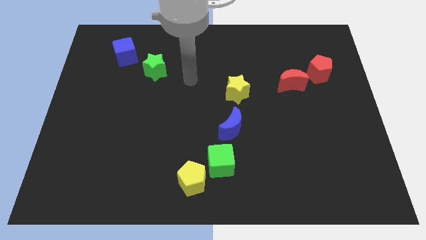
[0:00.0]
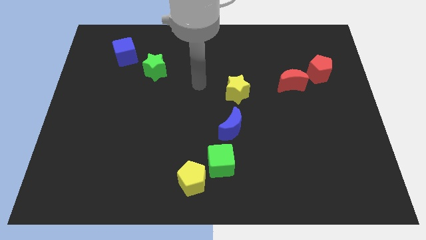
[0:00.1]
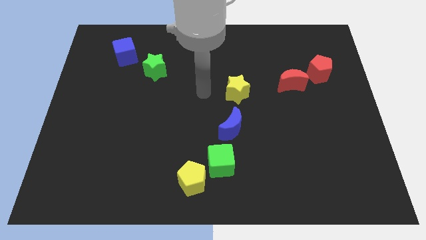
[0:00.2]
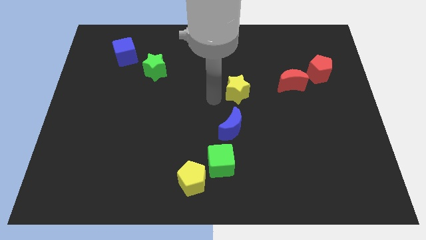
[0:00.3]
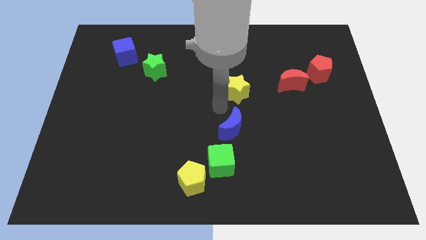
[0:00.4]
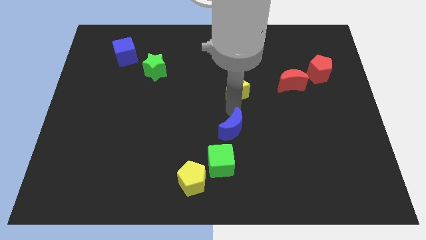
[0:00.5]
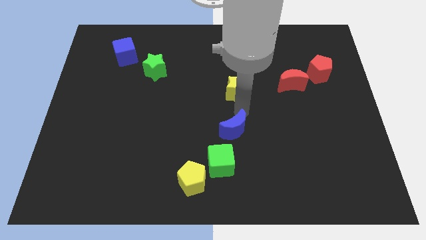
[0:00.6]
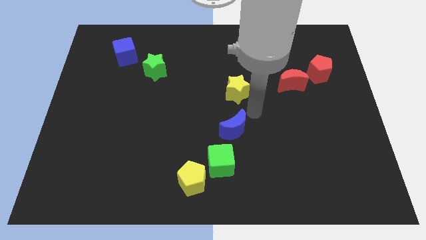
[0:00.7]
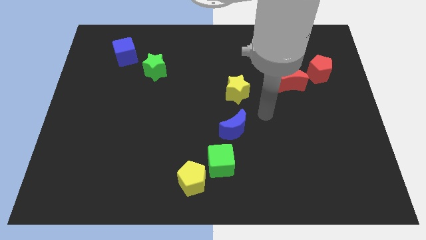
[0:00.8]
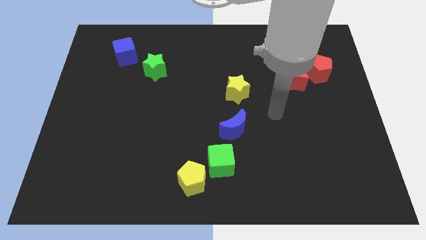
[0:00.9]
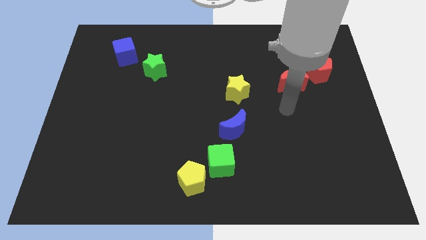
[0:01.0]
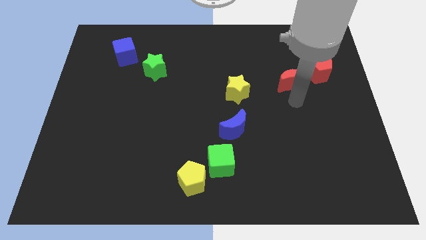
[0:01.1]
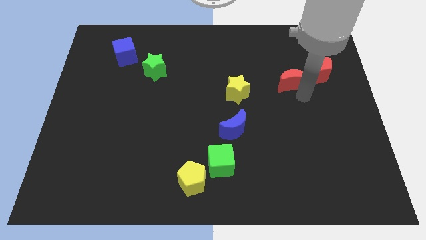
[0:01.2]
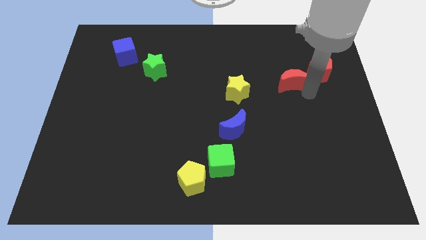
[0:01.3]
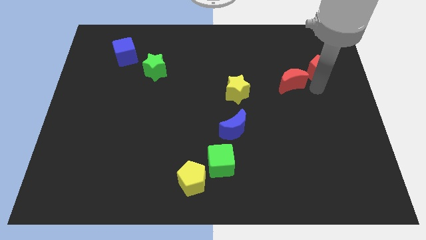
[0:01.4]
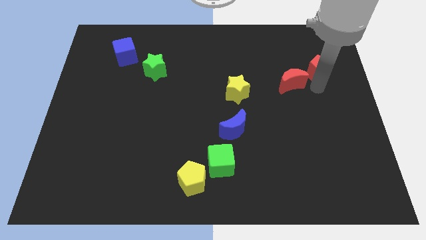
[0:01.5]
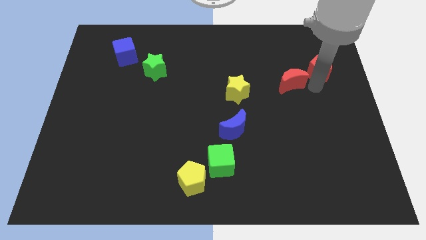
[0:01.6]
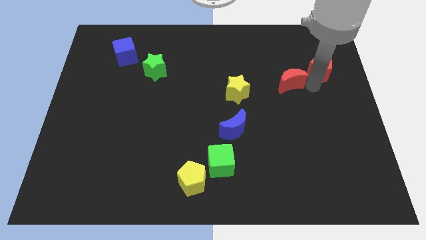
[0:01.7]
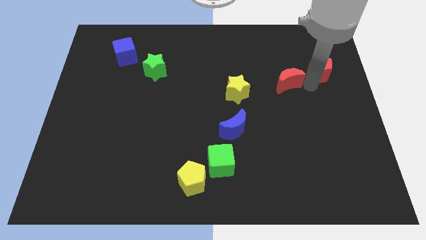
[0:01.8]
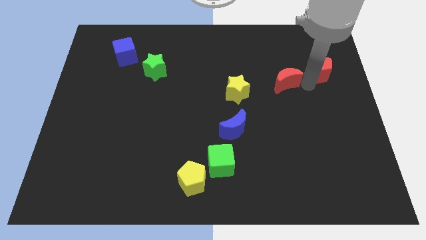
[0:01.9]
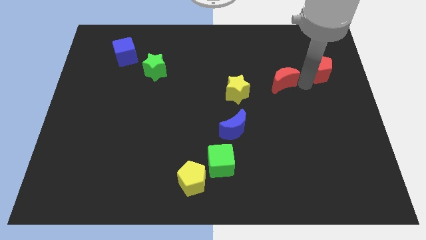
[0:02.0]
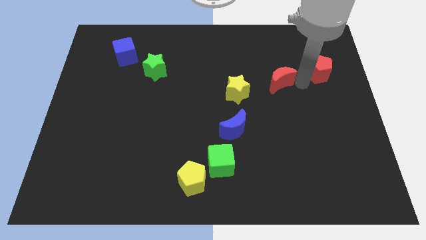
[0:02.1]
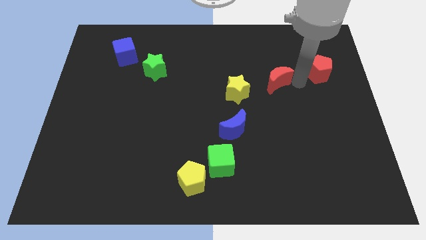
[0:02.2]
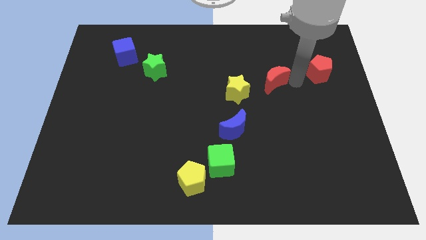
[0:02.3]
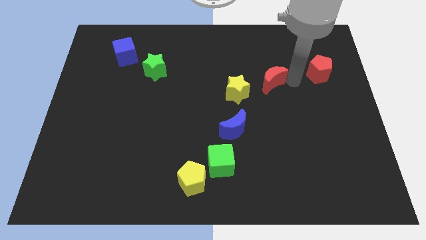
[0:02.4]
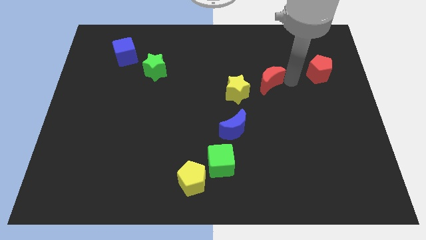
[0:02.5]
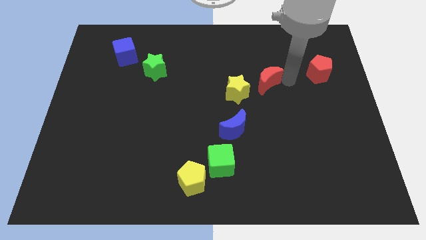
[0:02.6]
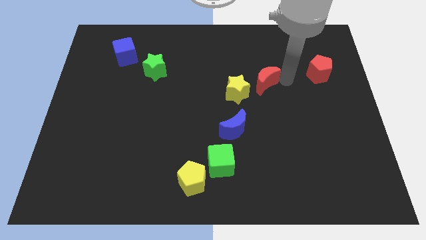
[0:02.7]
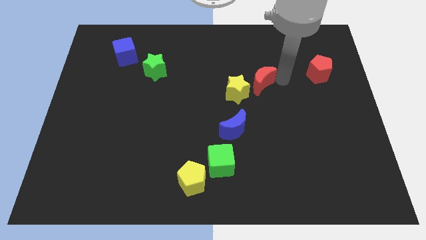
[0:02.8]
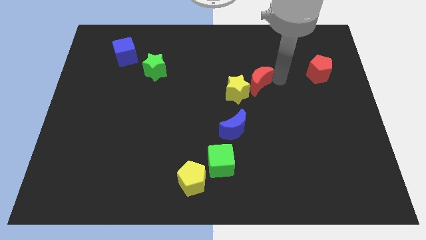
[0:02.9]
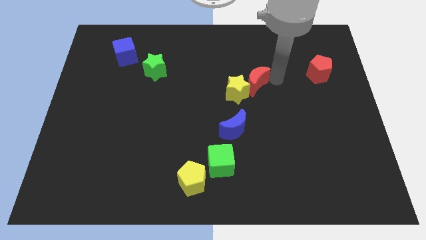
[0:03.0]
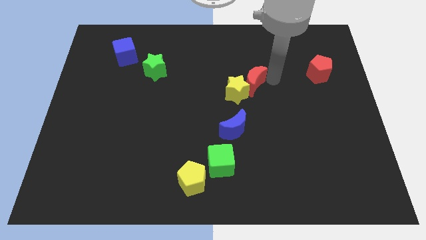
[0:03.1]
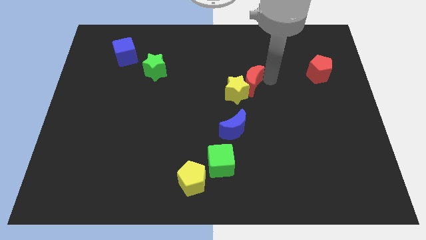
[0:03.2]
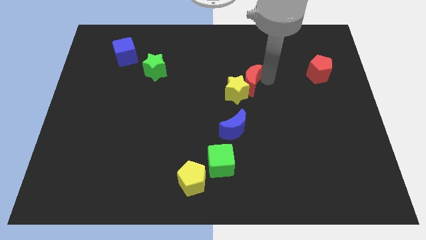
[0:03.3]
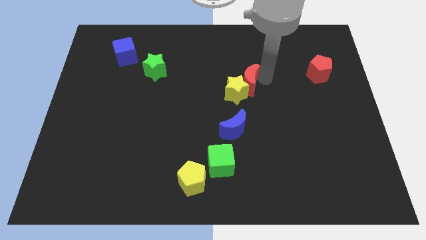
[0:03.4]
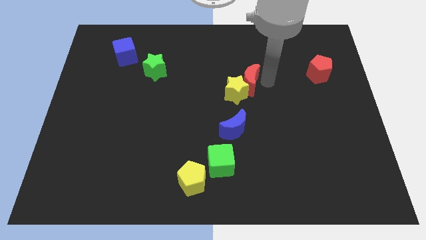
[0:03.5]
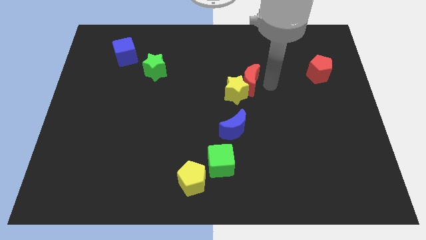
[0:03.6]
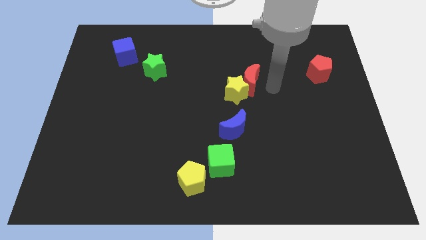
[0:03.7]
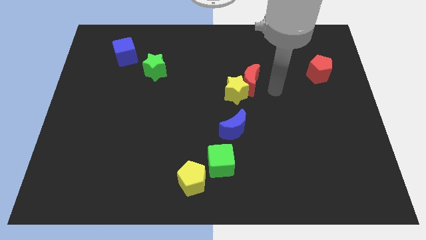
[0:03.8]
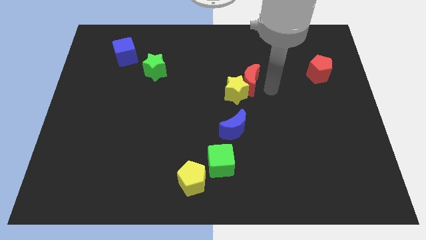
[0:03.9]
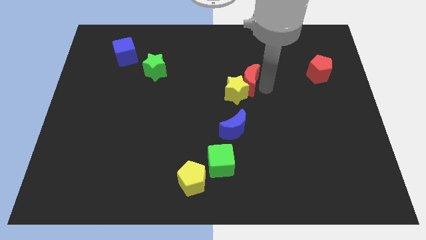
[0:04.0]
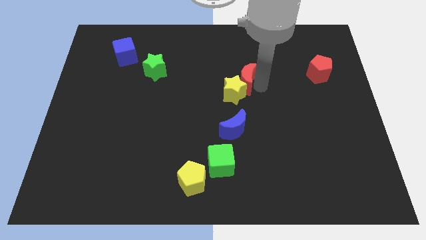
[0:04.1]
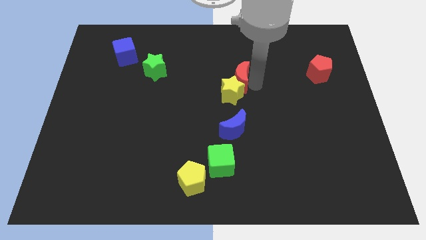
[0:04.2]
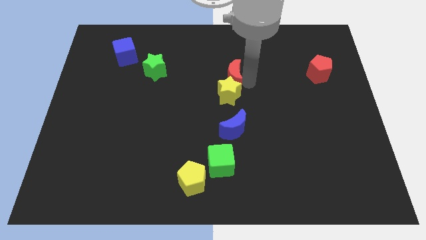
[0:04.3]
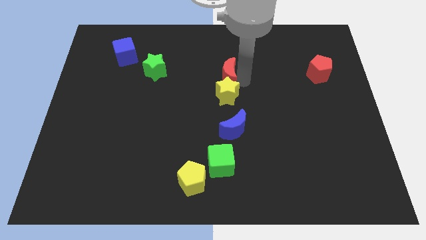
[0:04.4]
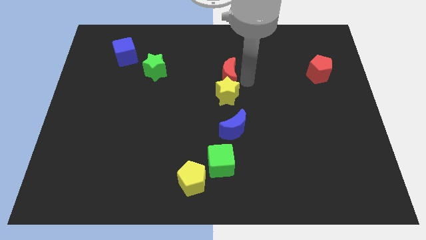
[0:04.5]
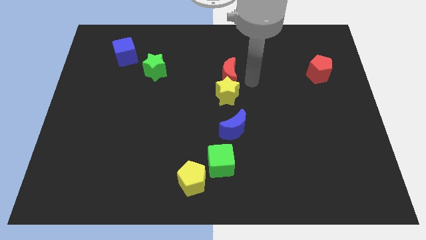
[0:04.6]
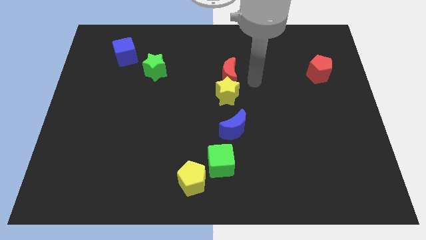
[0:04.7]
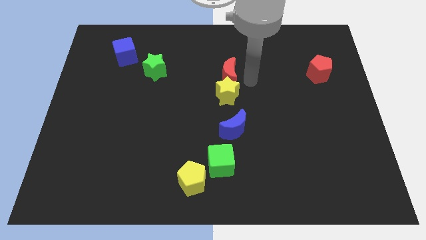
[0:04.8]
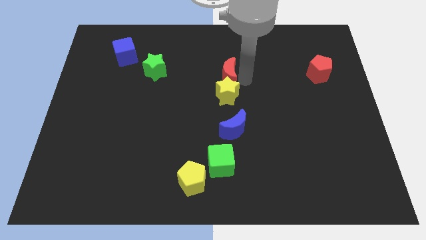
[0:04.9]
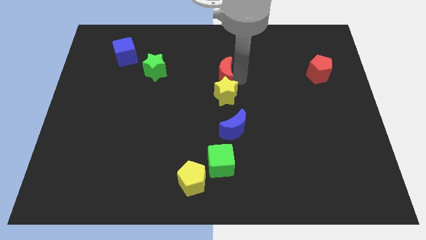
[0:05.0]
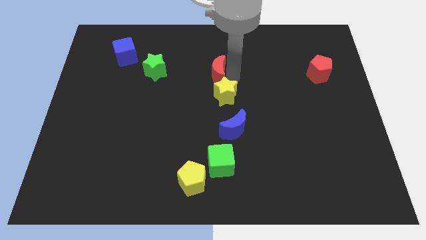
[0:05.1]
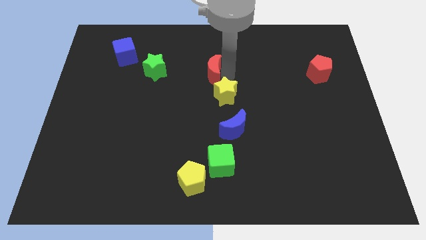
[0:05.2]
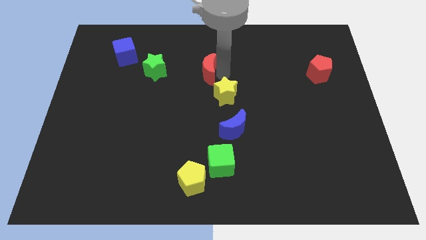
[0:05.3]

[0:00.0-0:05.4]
slide the red moon left

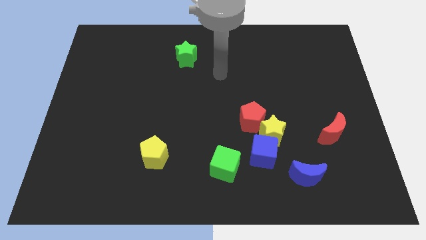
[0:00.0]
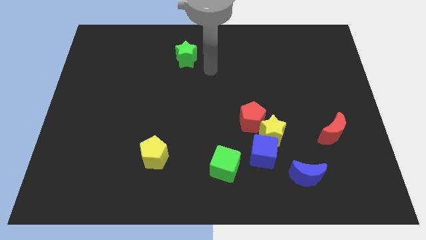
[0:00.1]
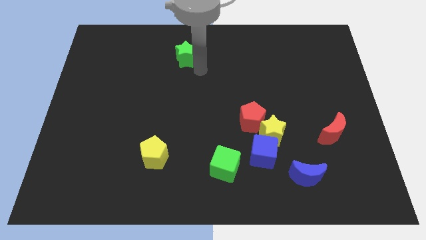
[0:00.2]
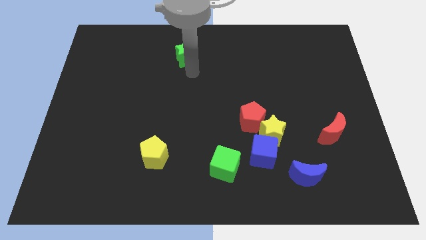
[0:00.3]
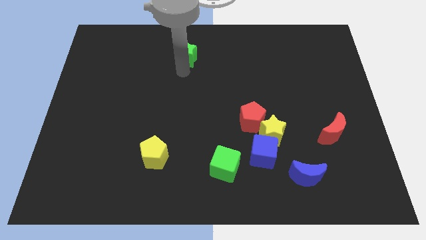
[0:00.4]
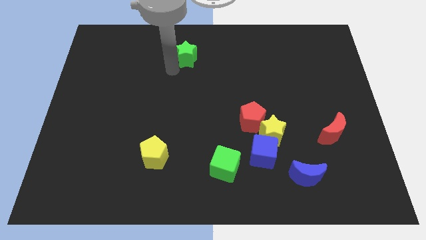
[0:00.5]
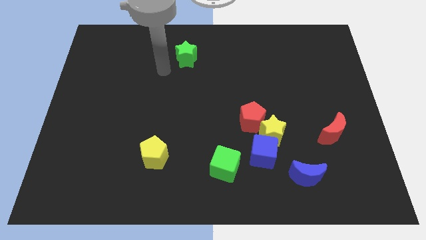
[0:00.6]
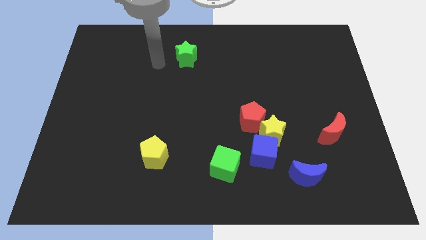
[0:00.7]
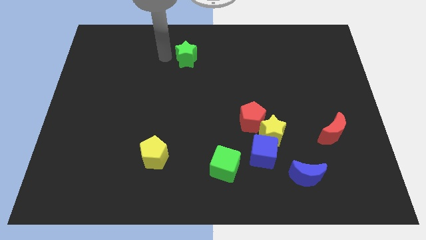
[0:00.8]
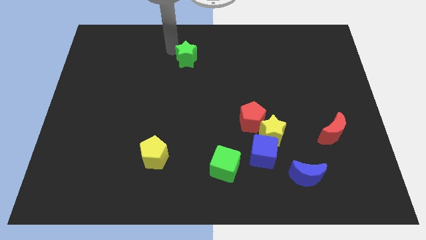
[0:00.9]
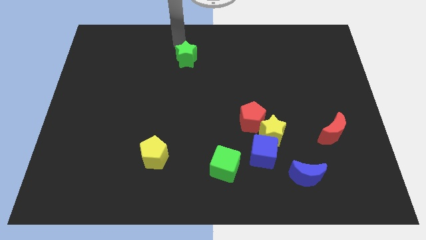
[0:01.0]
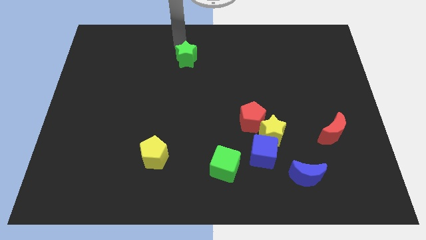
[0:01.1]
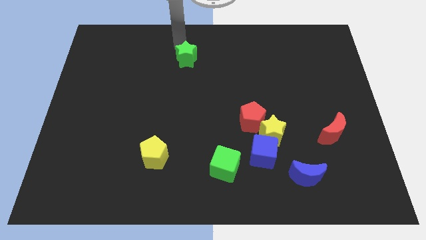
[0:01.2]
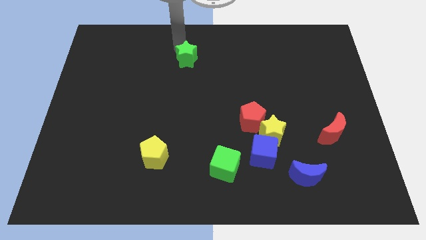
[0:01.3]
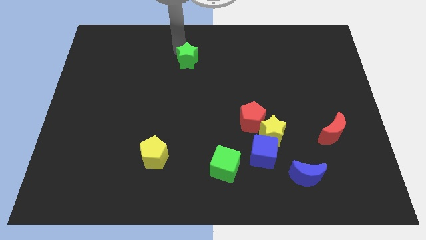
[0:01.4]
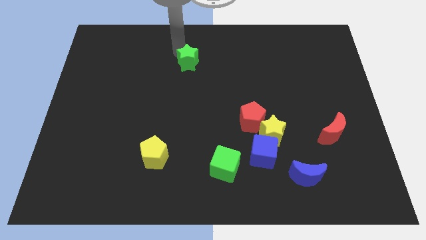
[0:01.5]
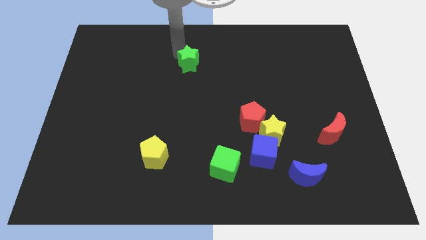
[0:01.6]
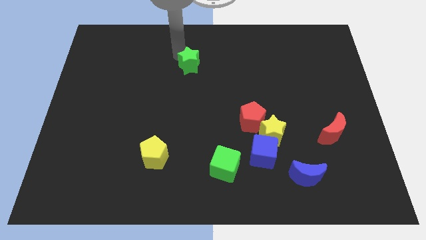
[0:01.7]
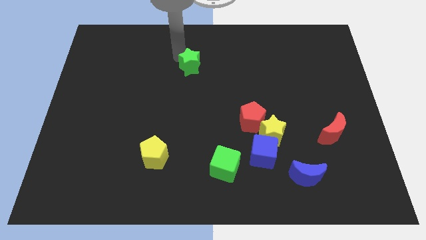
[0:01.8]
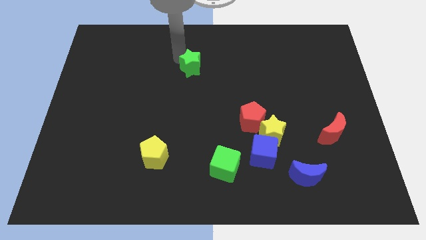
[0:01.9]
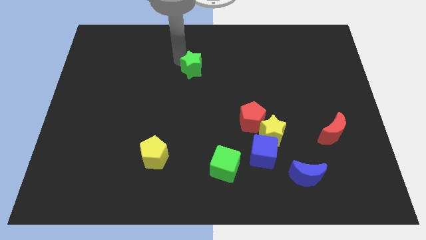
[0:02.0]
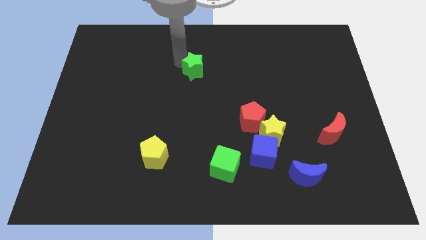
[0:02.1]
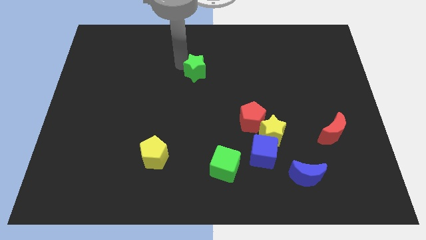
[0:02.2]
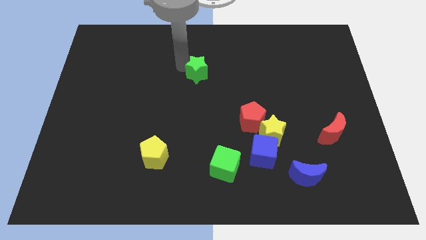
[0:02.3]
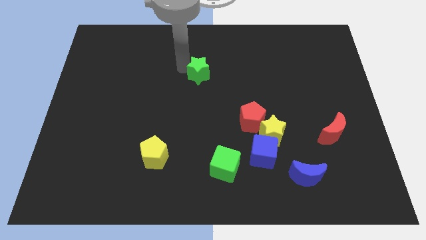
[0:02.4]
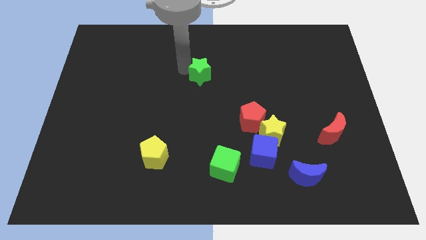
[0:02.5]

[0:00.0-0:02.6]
slide the green star downwards and right slightly

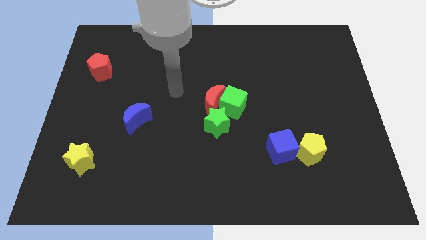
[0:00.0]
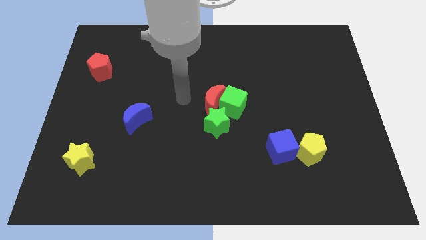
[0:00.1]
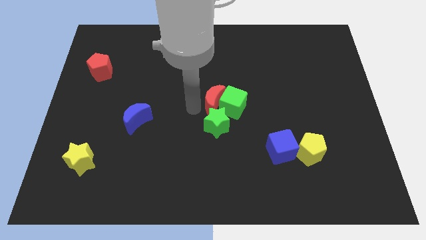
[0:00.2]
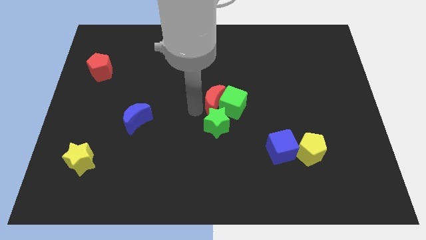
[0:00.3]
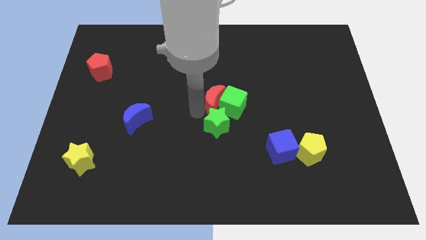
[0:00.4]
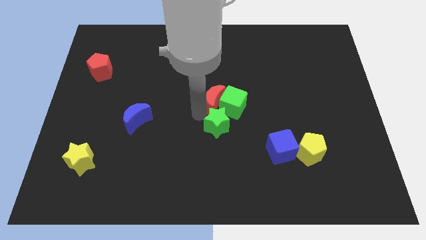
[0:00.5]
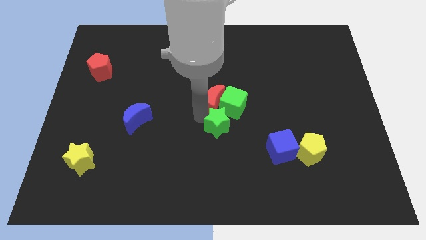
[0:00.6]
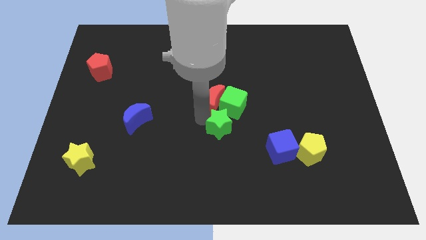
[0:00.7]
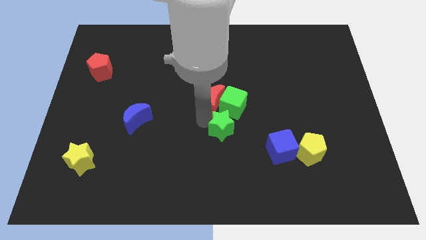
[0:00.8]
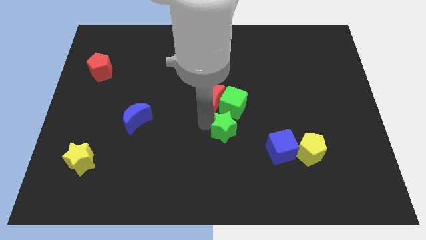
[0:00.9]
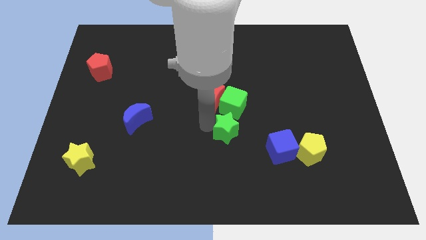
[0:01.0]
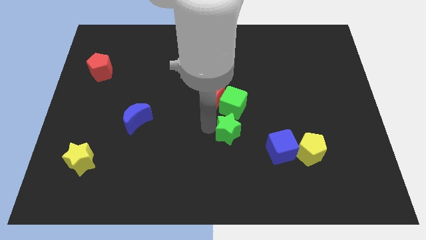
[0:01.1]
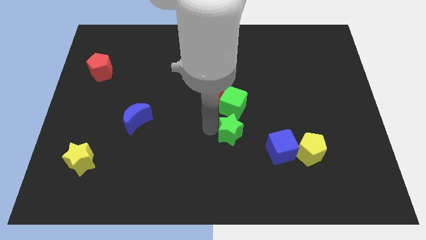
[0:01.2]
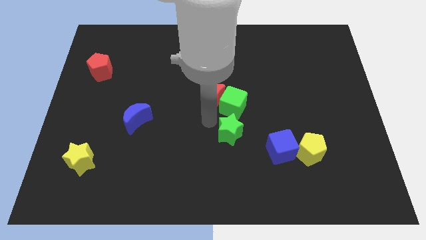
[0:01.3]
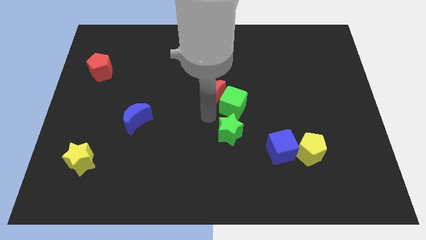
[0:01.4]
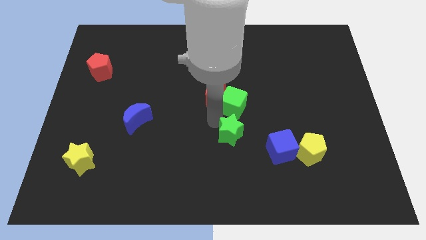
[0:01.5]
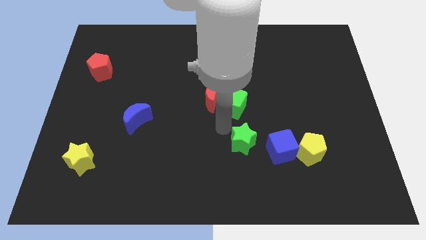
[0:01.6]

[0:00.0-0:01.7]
move the green star slightly downwards and then right
